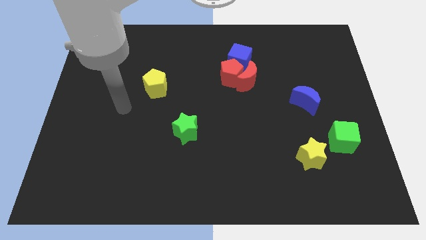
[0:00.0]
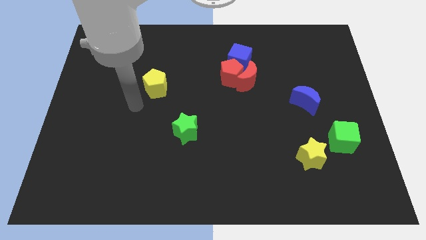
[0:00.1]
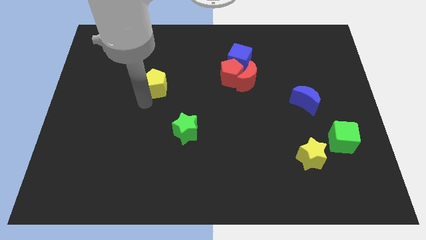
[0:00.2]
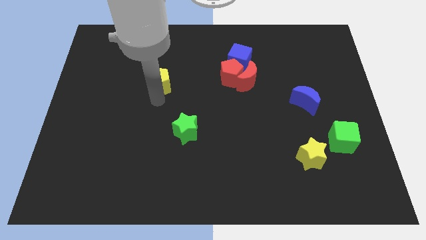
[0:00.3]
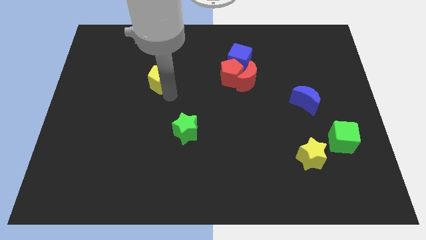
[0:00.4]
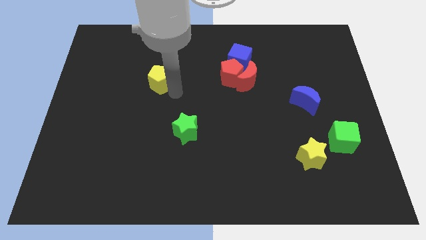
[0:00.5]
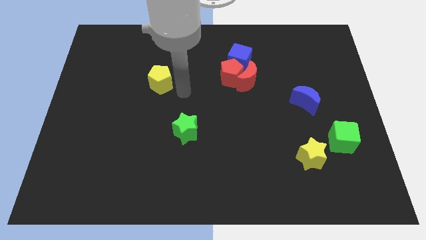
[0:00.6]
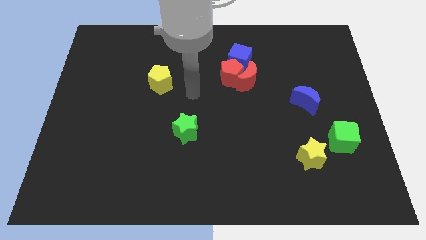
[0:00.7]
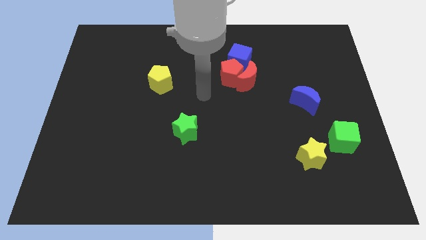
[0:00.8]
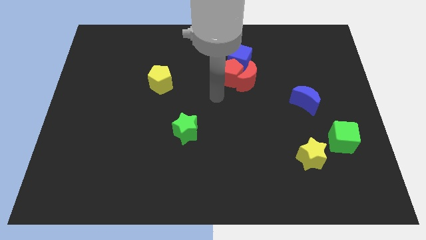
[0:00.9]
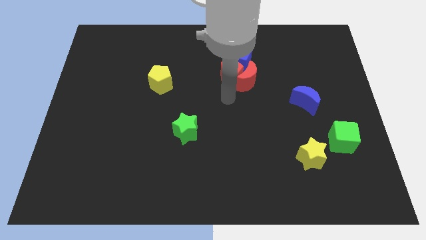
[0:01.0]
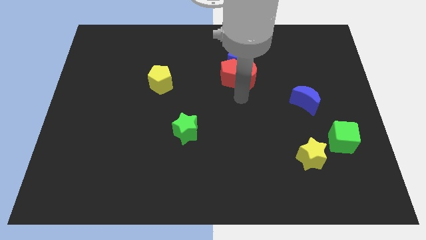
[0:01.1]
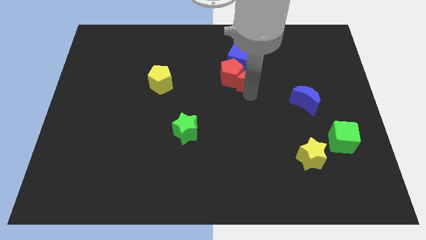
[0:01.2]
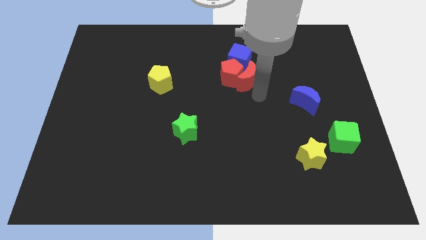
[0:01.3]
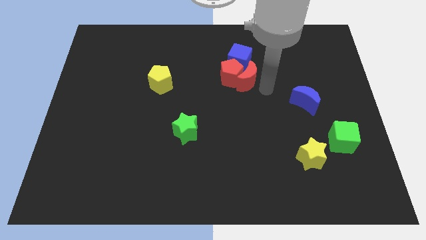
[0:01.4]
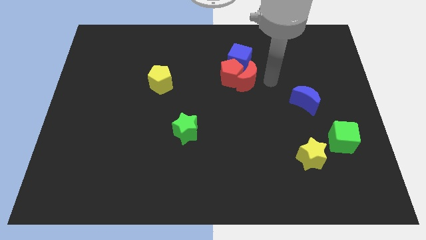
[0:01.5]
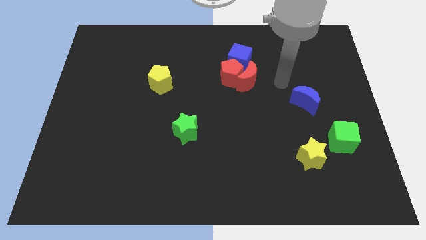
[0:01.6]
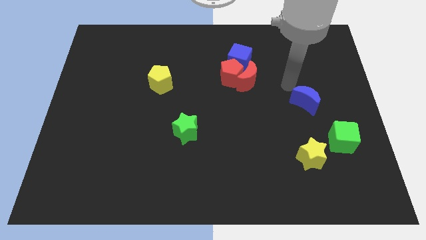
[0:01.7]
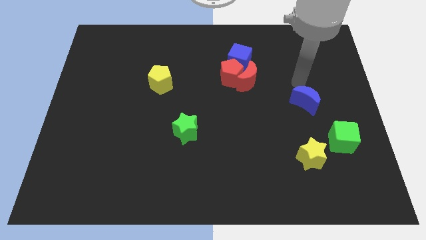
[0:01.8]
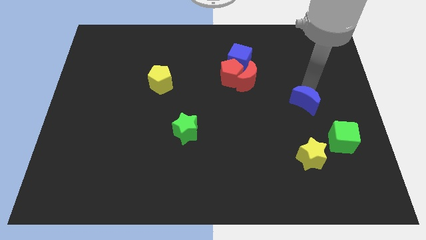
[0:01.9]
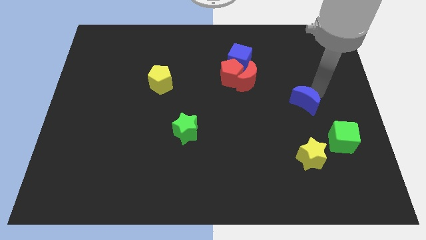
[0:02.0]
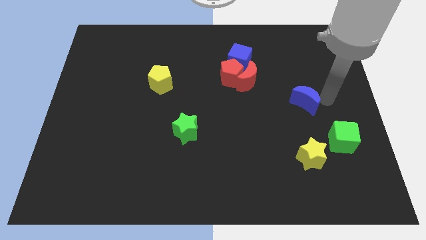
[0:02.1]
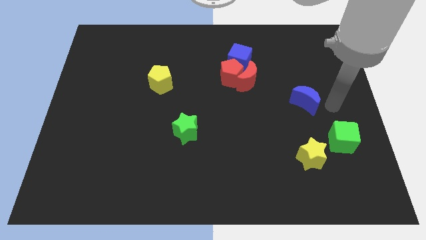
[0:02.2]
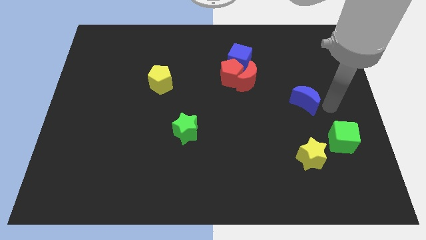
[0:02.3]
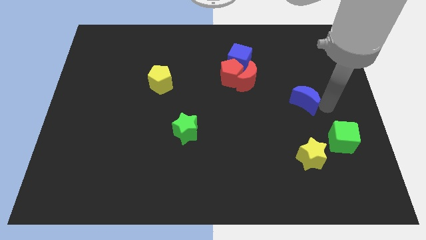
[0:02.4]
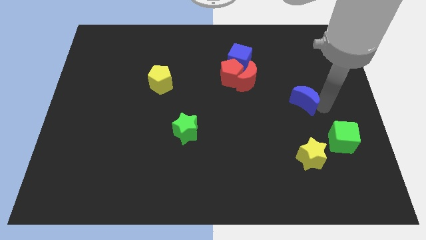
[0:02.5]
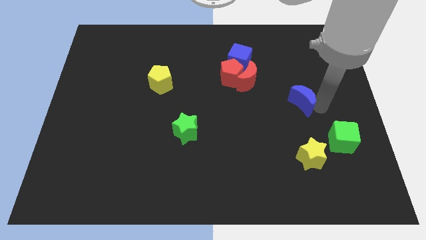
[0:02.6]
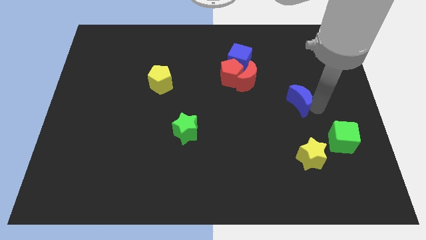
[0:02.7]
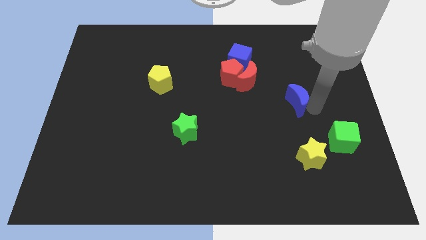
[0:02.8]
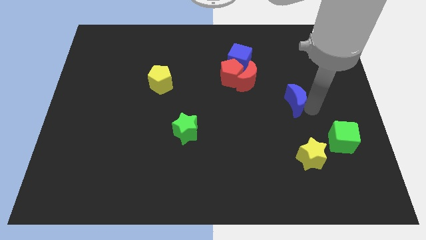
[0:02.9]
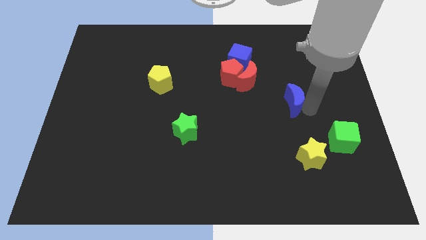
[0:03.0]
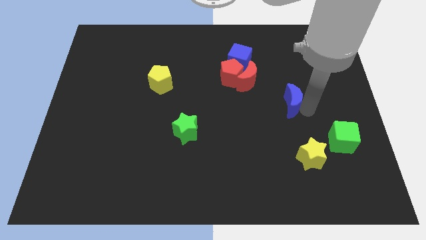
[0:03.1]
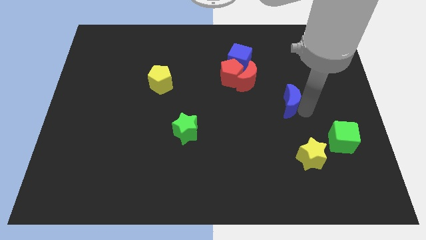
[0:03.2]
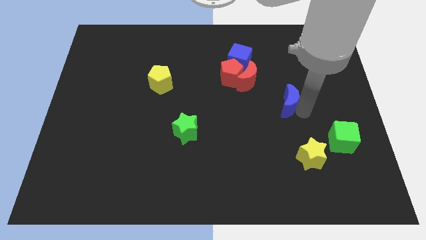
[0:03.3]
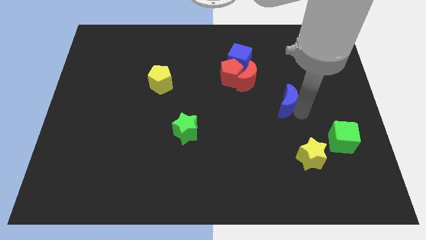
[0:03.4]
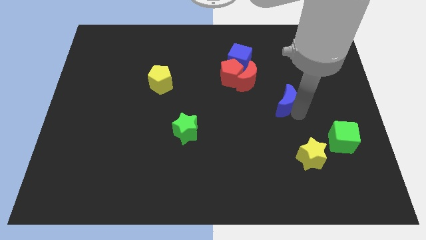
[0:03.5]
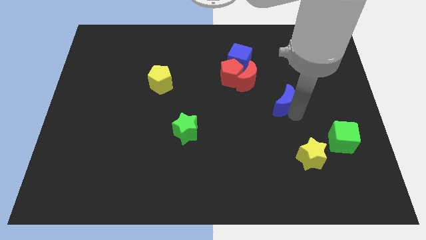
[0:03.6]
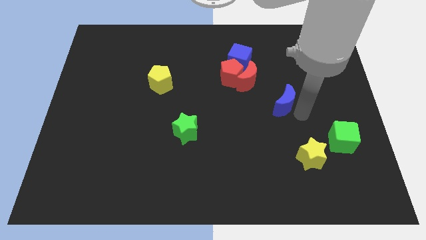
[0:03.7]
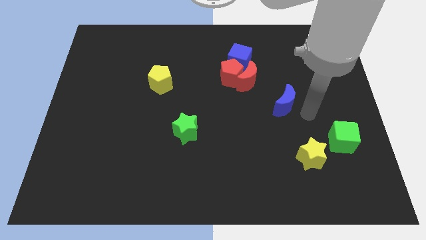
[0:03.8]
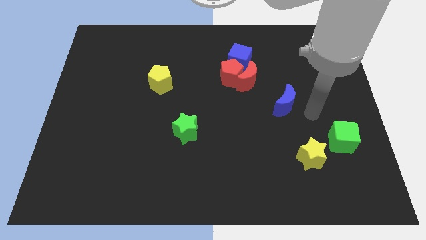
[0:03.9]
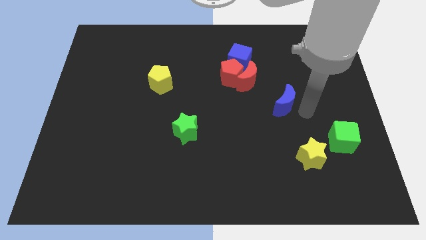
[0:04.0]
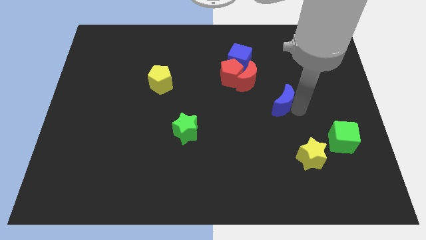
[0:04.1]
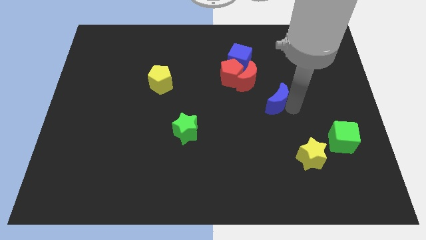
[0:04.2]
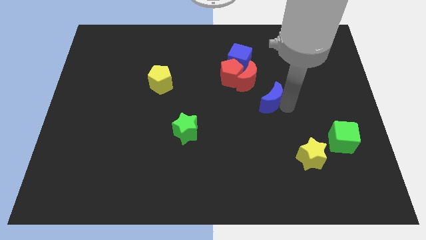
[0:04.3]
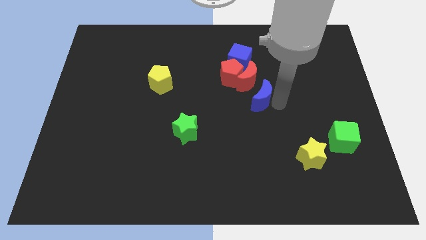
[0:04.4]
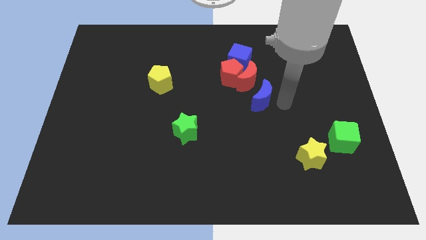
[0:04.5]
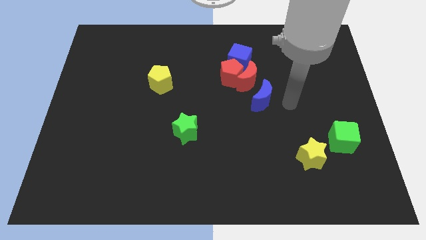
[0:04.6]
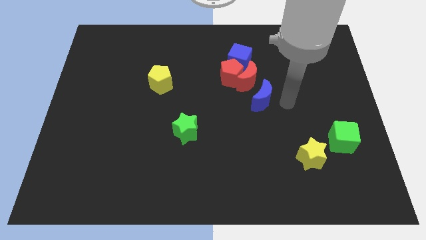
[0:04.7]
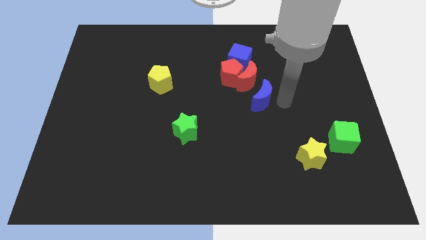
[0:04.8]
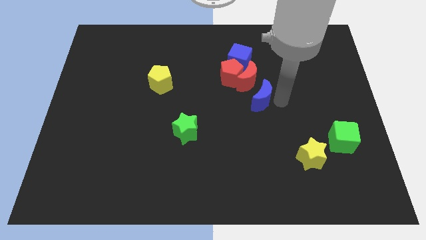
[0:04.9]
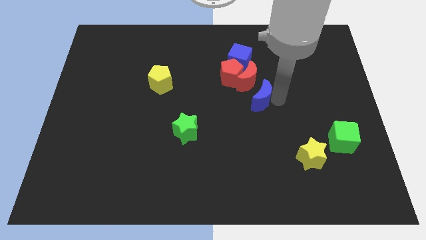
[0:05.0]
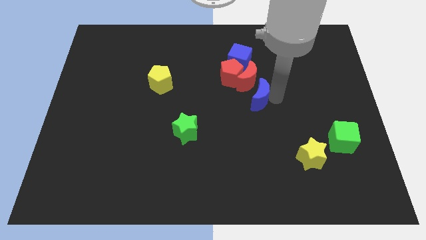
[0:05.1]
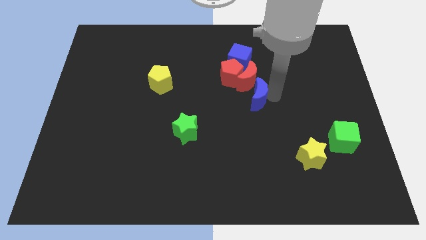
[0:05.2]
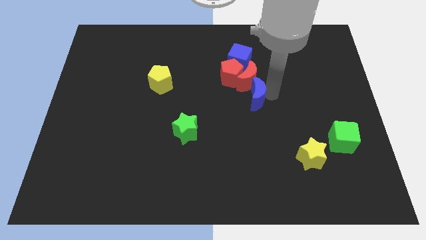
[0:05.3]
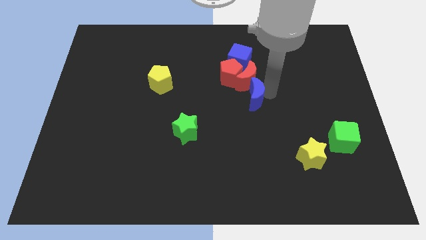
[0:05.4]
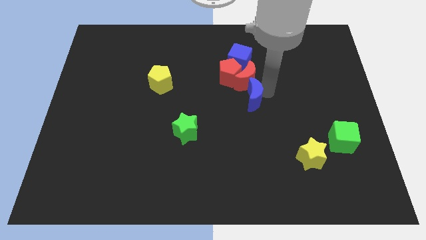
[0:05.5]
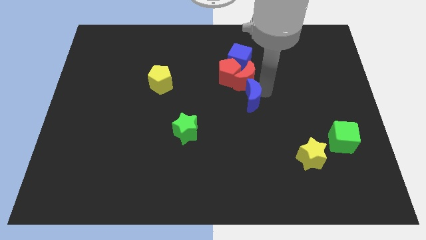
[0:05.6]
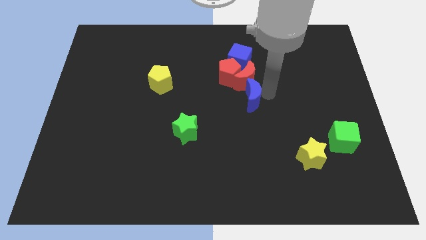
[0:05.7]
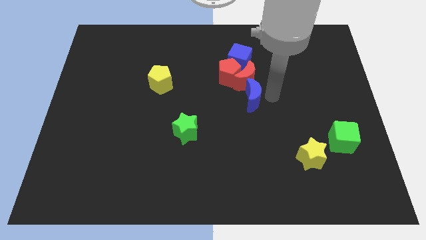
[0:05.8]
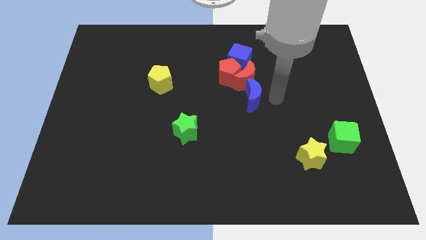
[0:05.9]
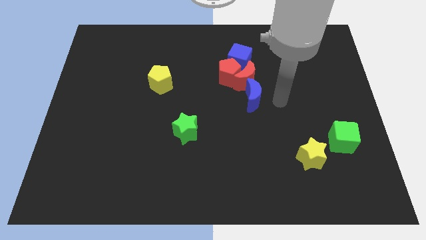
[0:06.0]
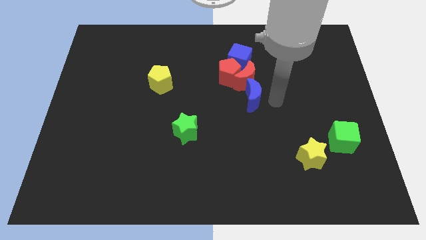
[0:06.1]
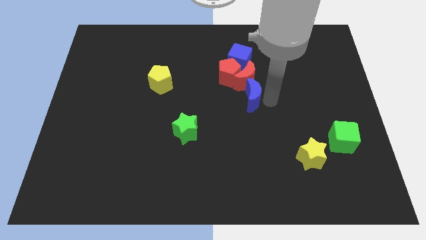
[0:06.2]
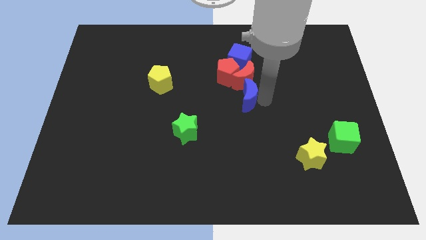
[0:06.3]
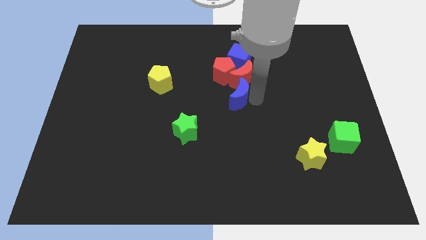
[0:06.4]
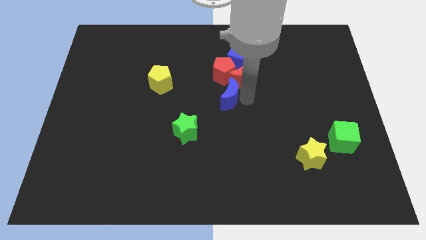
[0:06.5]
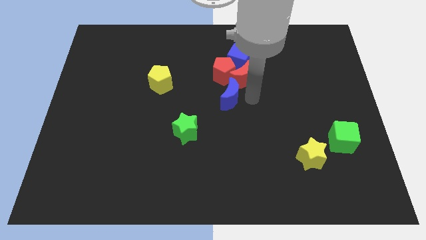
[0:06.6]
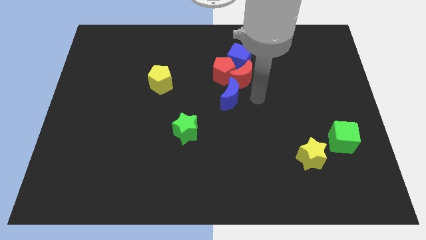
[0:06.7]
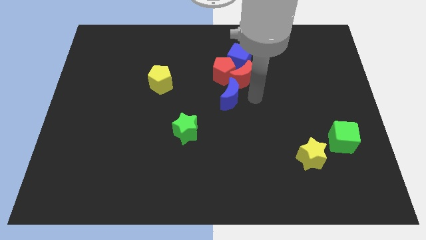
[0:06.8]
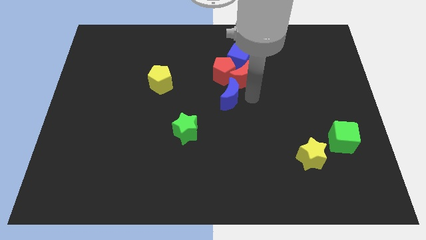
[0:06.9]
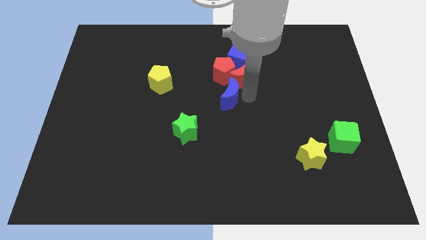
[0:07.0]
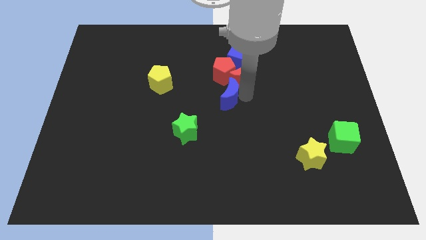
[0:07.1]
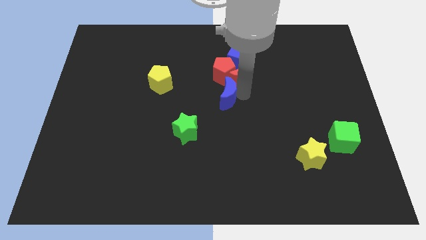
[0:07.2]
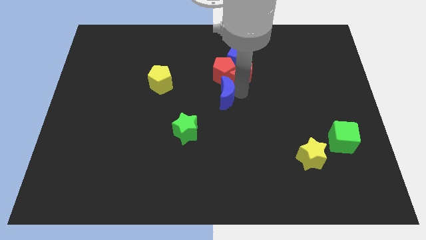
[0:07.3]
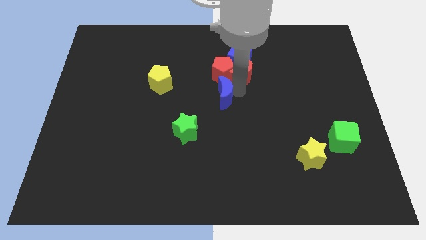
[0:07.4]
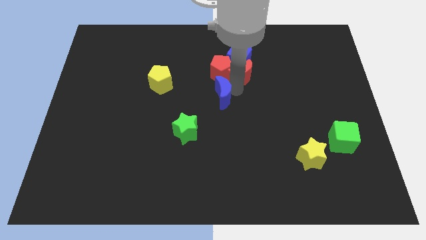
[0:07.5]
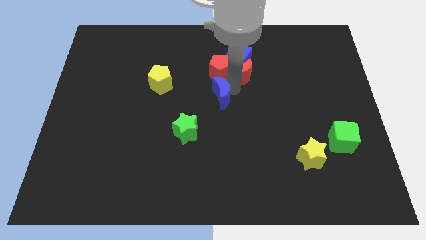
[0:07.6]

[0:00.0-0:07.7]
slide the blue moon to the left

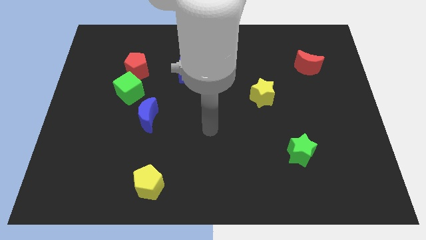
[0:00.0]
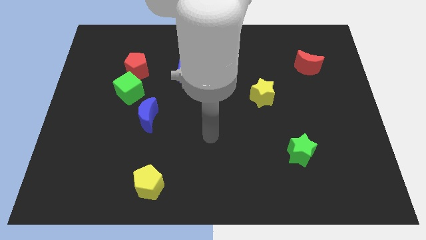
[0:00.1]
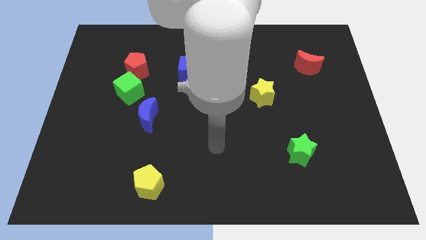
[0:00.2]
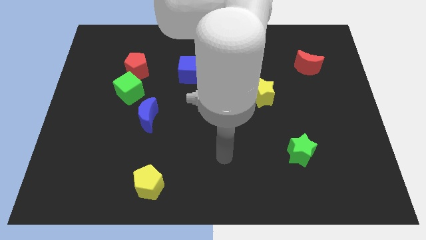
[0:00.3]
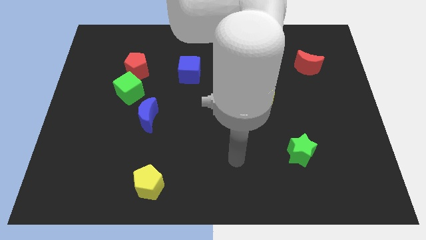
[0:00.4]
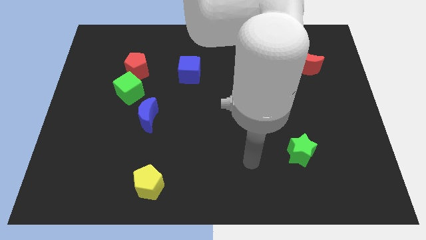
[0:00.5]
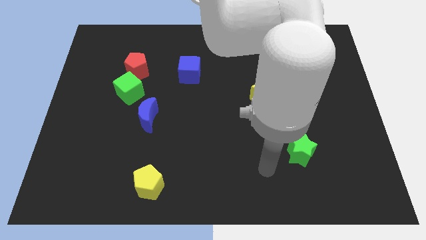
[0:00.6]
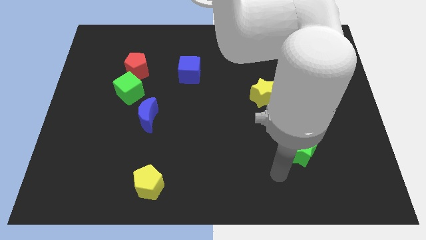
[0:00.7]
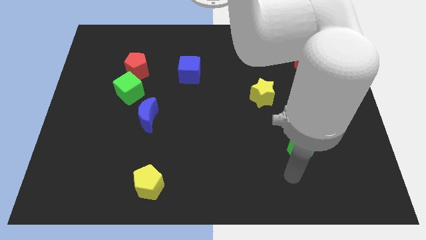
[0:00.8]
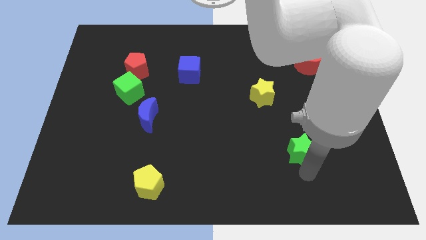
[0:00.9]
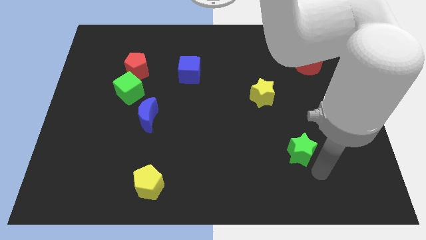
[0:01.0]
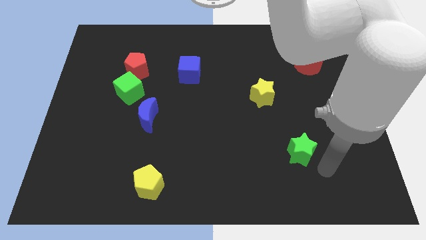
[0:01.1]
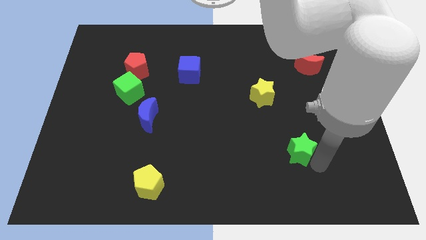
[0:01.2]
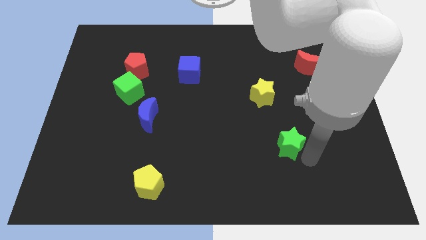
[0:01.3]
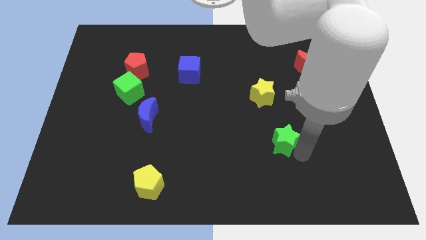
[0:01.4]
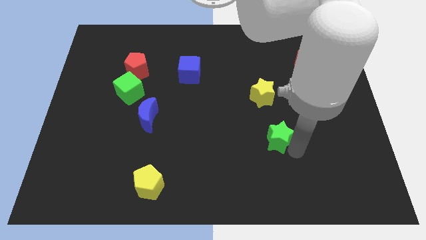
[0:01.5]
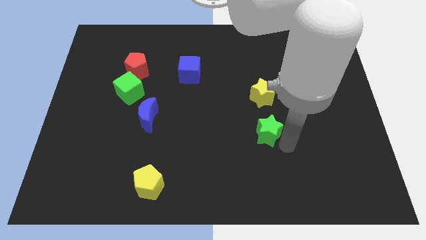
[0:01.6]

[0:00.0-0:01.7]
slightly push the green star upwards and to the left diagonally
